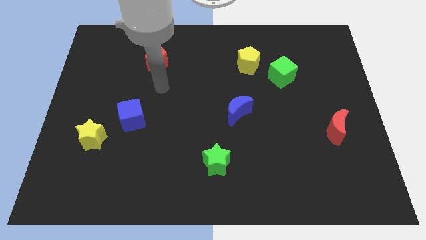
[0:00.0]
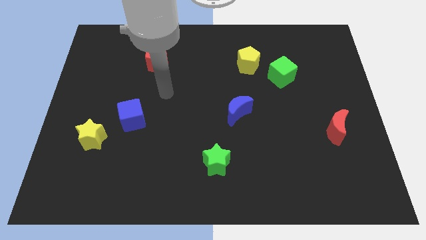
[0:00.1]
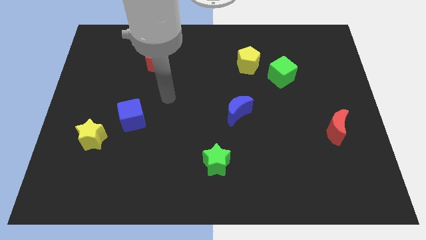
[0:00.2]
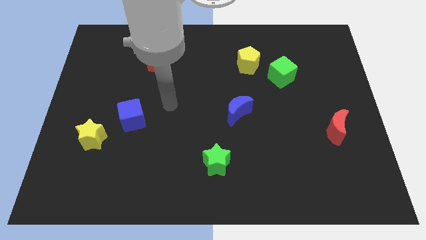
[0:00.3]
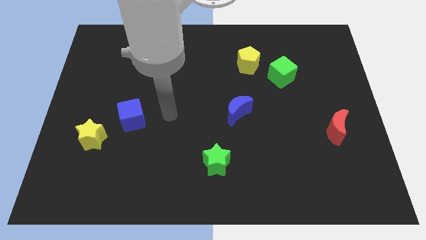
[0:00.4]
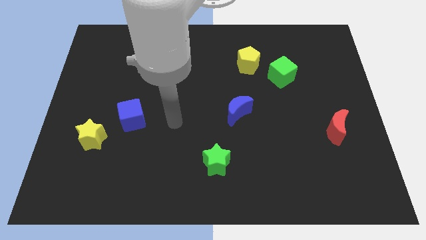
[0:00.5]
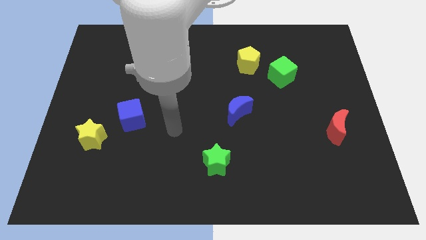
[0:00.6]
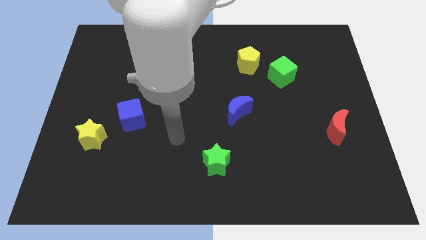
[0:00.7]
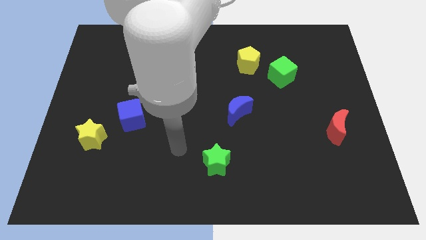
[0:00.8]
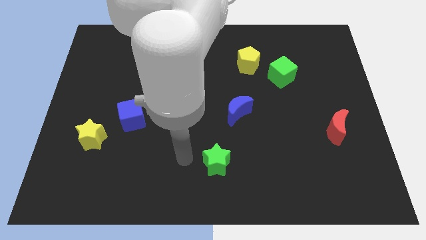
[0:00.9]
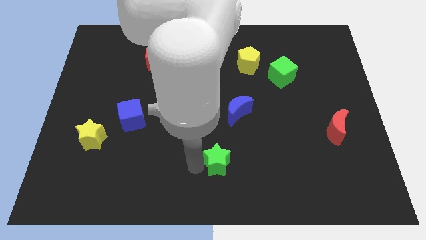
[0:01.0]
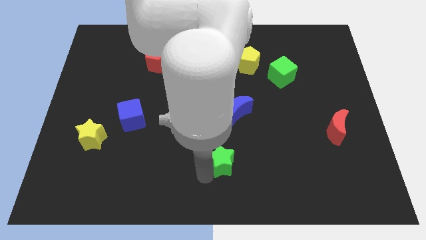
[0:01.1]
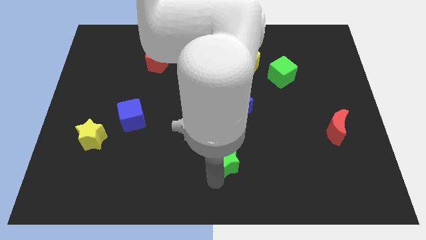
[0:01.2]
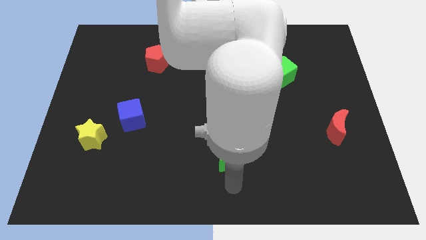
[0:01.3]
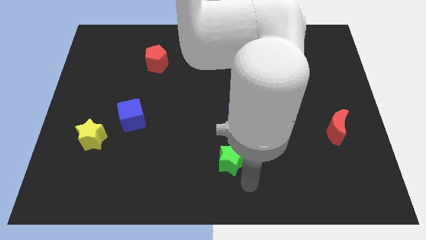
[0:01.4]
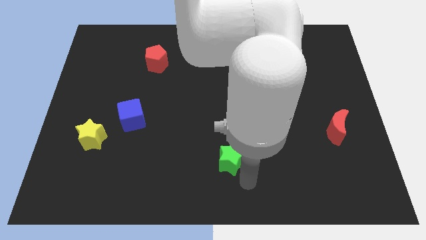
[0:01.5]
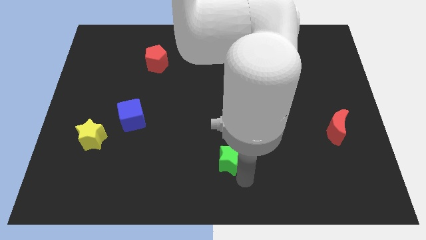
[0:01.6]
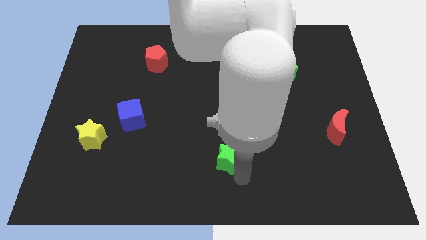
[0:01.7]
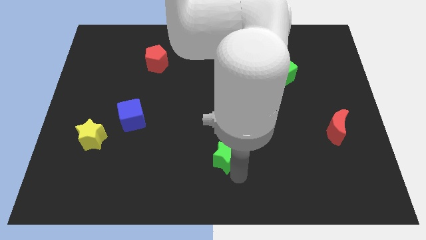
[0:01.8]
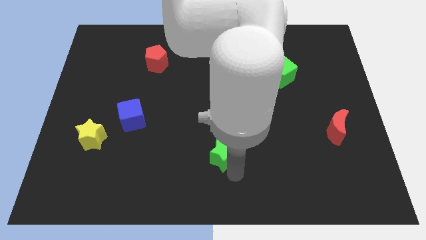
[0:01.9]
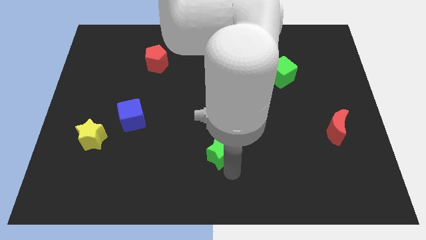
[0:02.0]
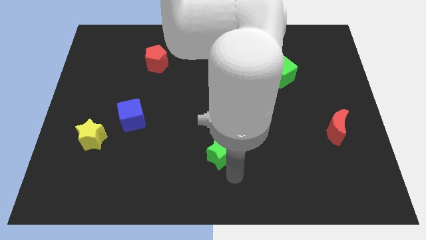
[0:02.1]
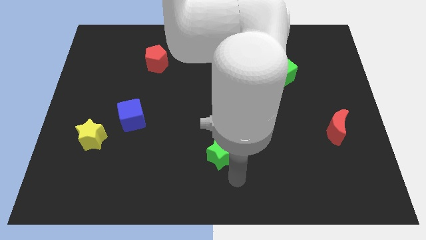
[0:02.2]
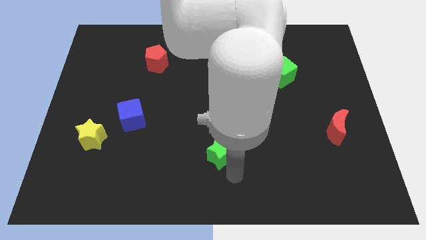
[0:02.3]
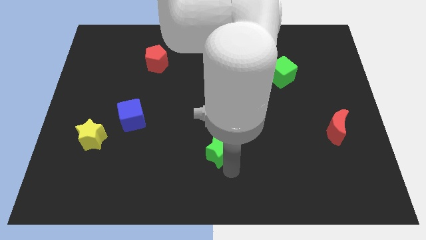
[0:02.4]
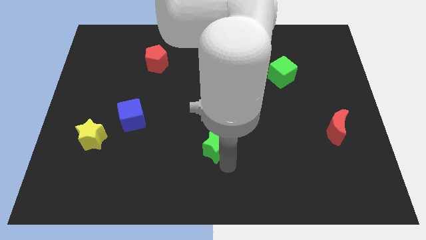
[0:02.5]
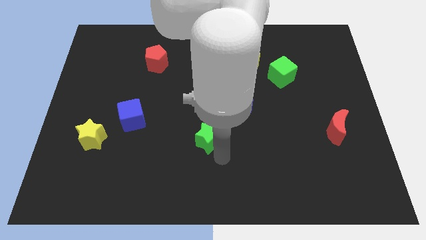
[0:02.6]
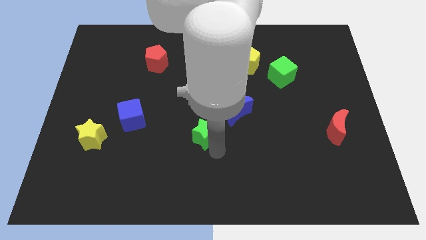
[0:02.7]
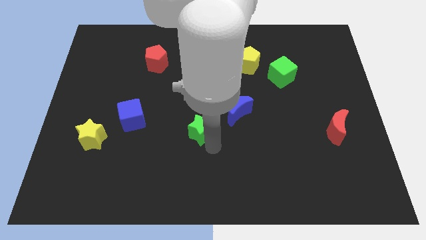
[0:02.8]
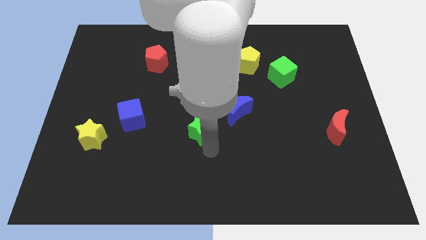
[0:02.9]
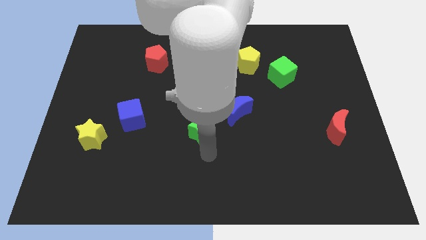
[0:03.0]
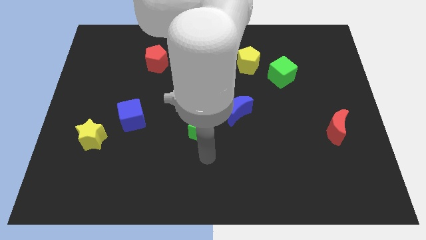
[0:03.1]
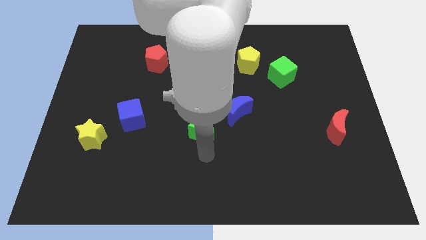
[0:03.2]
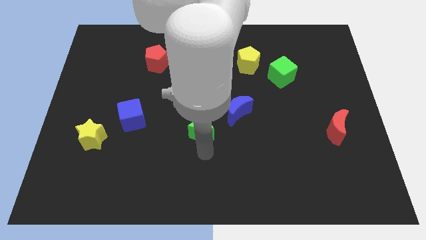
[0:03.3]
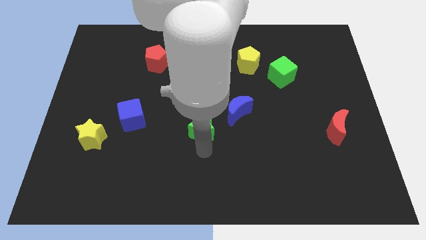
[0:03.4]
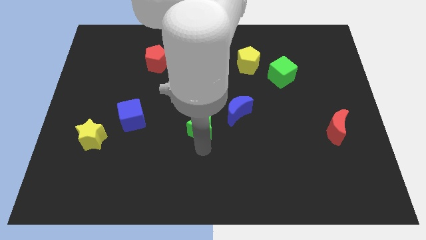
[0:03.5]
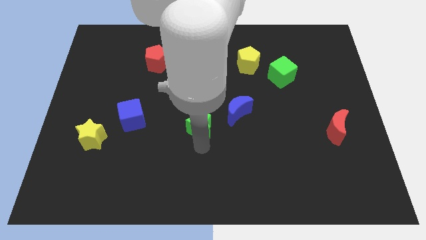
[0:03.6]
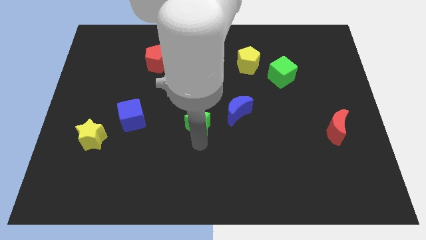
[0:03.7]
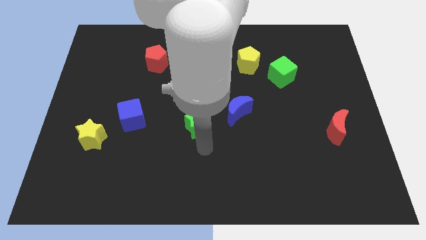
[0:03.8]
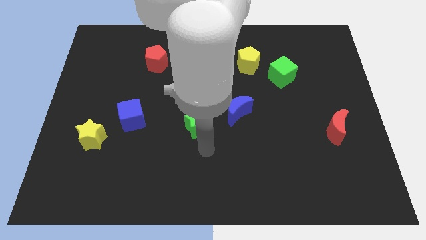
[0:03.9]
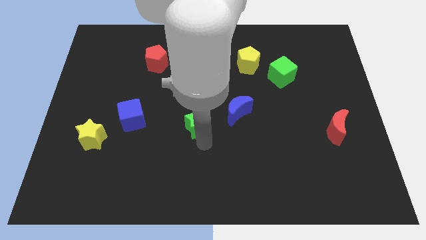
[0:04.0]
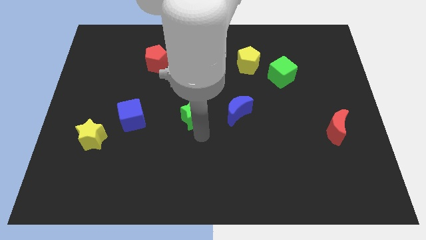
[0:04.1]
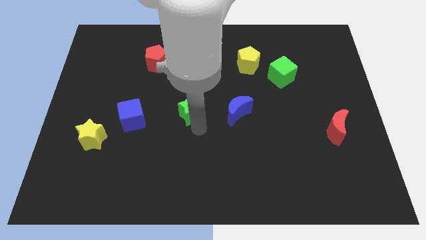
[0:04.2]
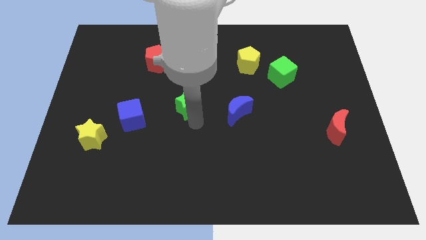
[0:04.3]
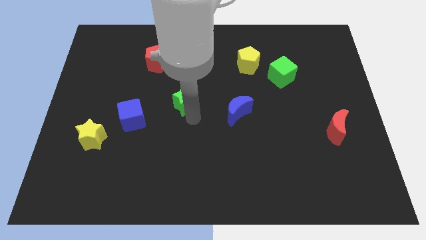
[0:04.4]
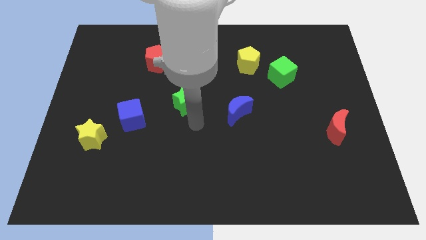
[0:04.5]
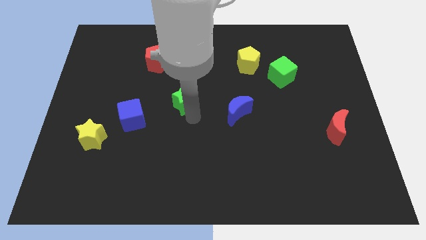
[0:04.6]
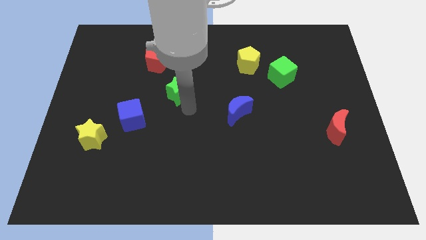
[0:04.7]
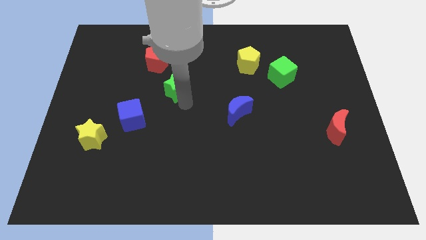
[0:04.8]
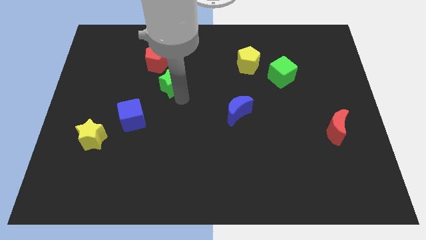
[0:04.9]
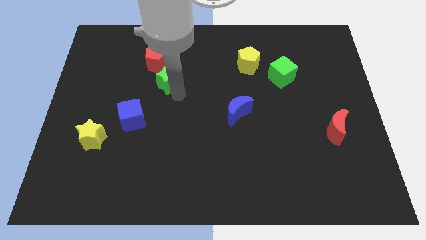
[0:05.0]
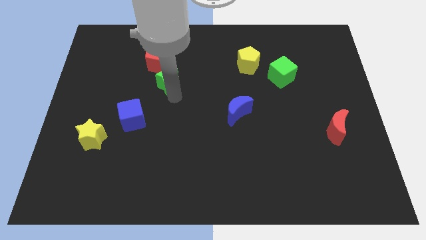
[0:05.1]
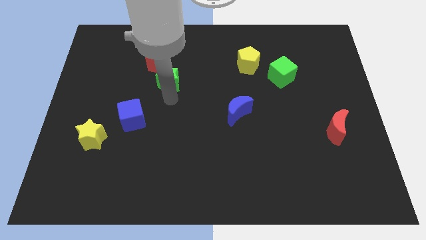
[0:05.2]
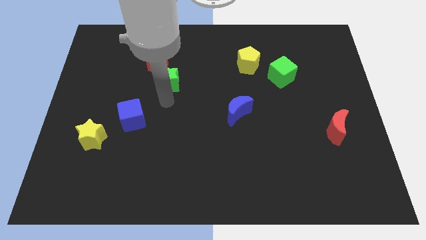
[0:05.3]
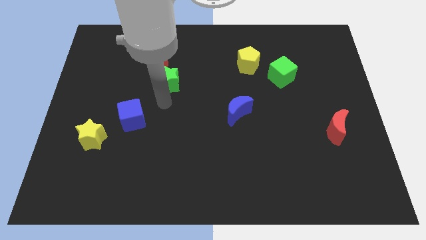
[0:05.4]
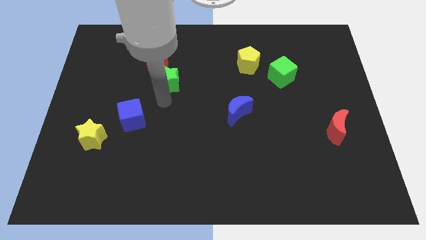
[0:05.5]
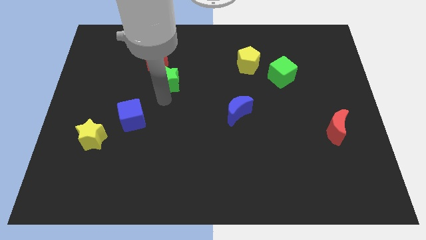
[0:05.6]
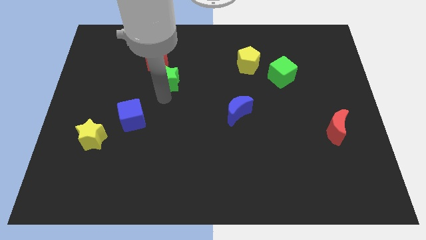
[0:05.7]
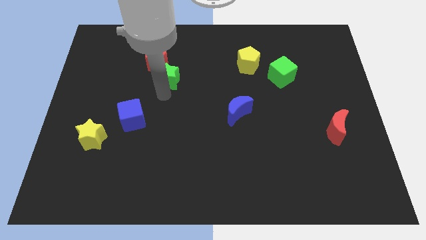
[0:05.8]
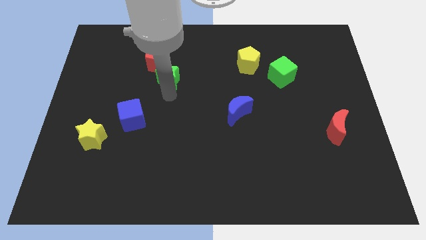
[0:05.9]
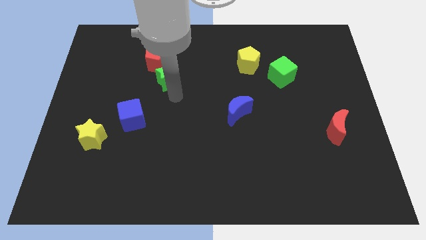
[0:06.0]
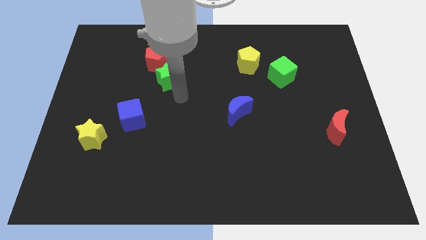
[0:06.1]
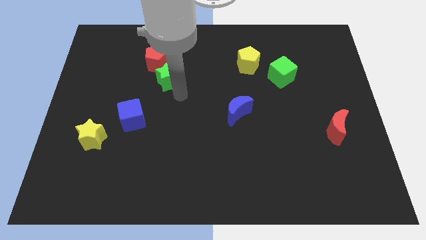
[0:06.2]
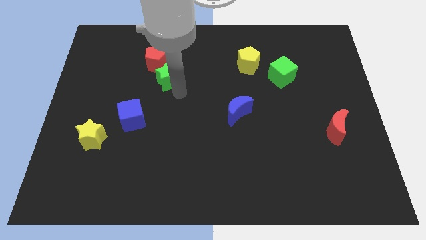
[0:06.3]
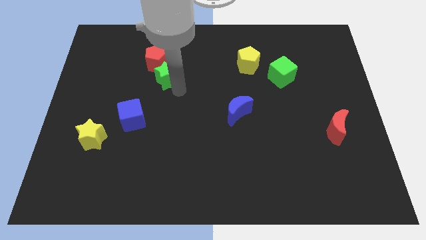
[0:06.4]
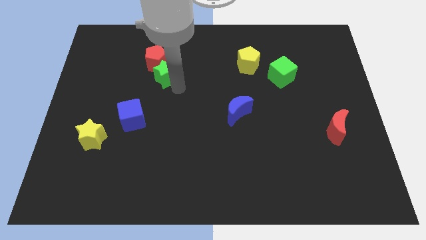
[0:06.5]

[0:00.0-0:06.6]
slide the green star to the red pentagon

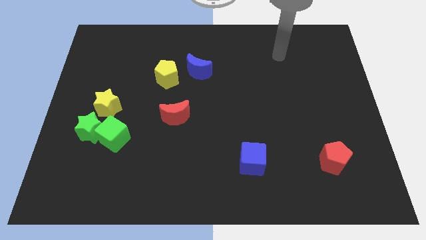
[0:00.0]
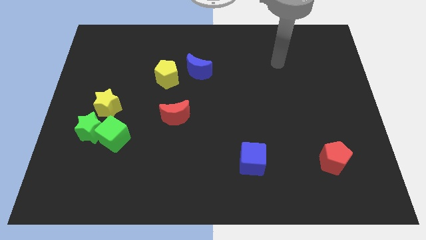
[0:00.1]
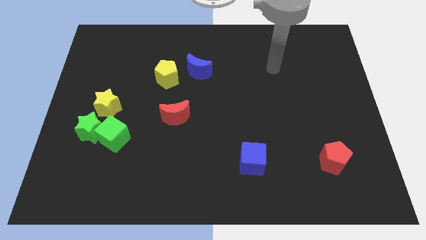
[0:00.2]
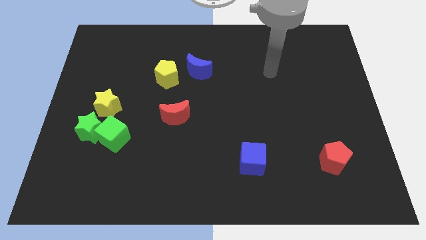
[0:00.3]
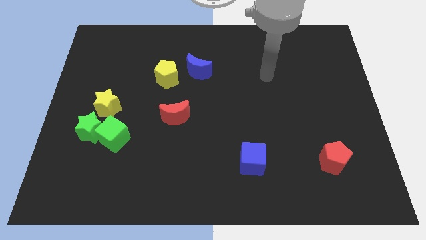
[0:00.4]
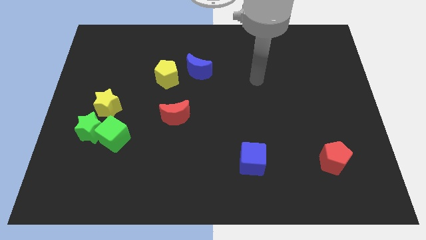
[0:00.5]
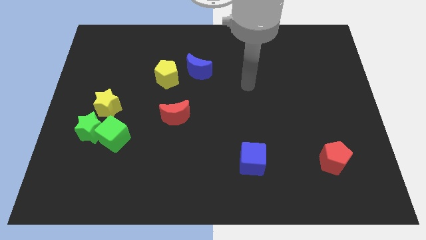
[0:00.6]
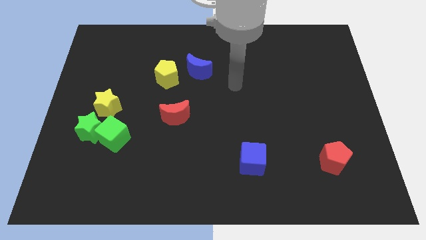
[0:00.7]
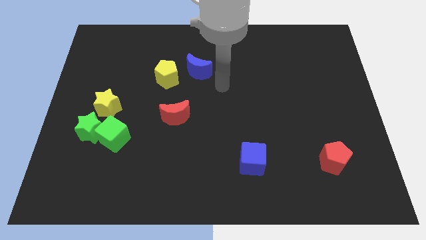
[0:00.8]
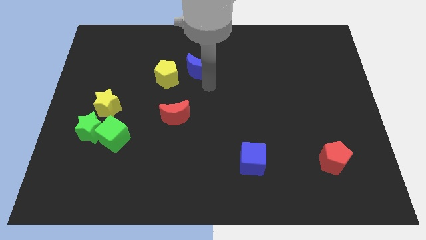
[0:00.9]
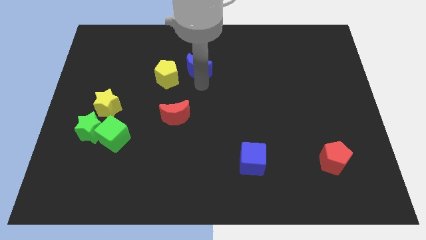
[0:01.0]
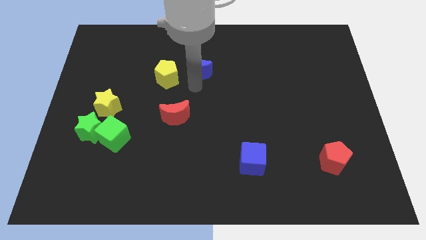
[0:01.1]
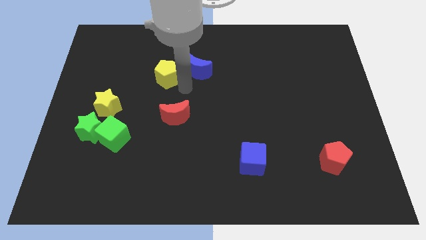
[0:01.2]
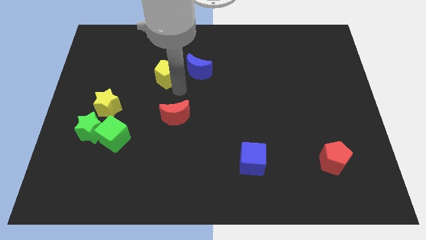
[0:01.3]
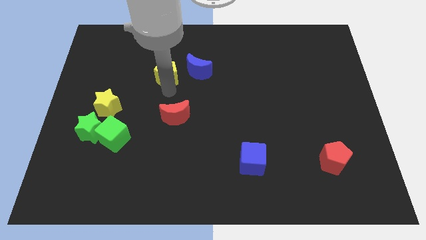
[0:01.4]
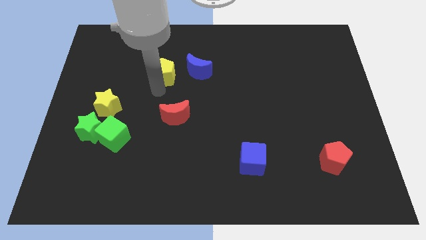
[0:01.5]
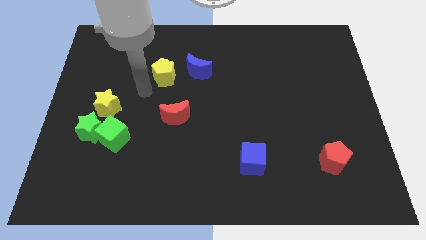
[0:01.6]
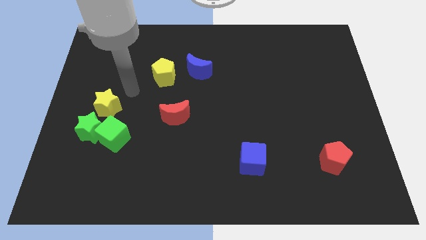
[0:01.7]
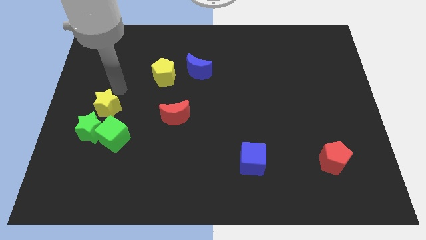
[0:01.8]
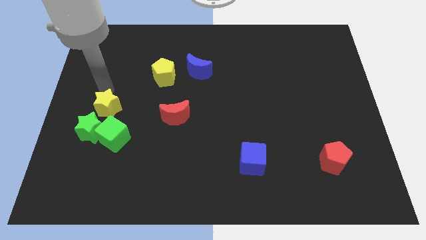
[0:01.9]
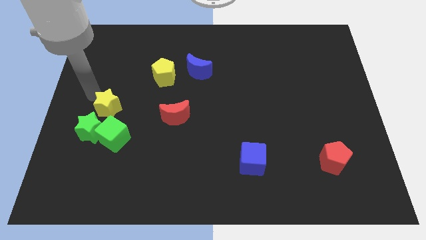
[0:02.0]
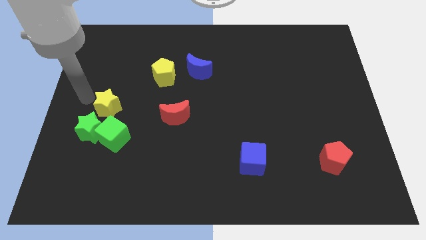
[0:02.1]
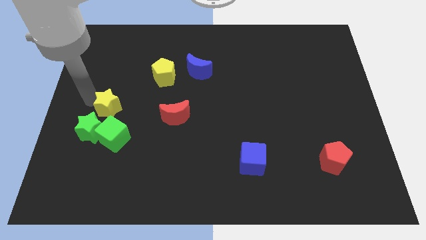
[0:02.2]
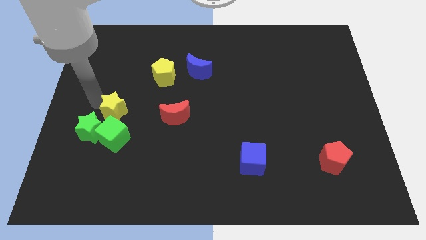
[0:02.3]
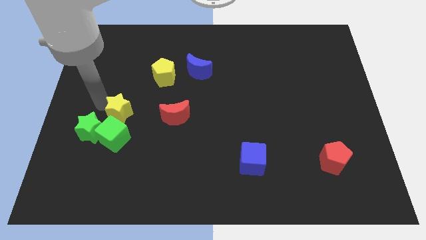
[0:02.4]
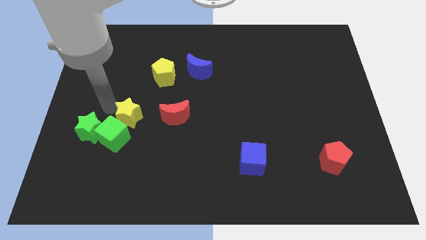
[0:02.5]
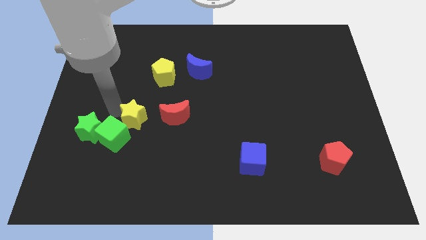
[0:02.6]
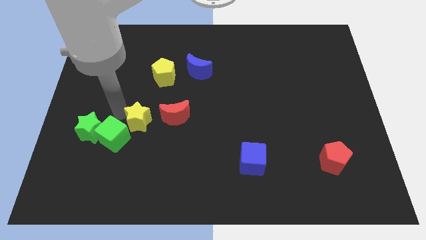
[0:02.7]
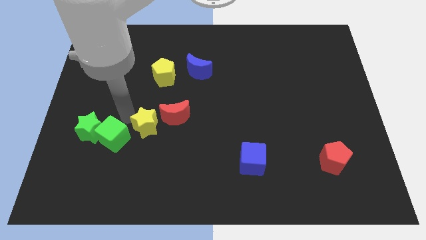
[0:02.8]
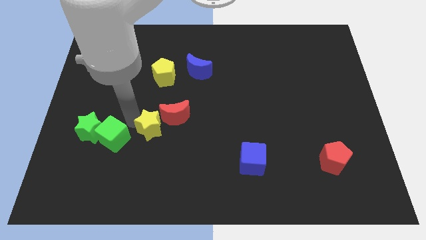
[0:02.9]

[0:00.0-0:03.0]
push the yellow star towards the red moon
